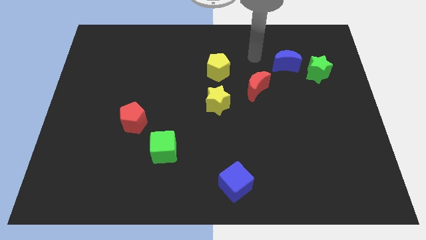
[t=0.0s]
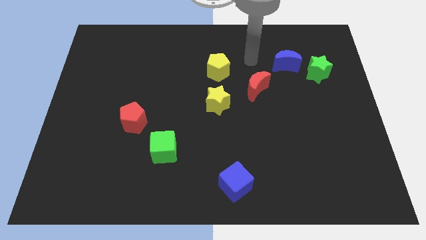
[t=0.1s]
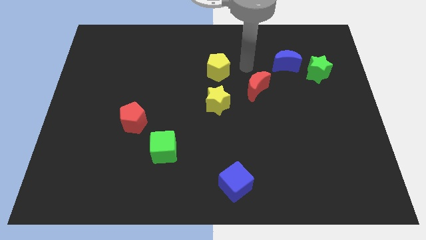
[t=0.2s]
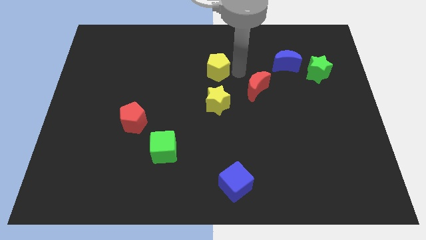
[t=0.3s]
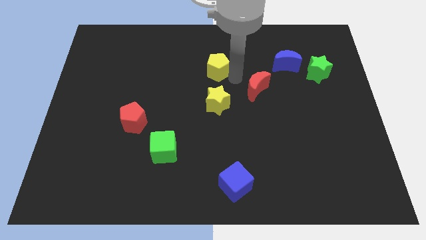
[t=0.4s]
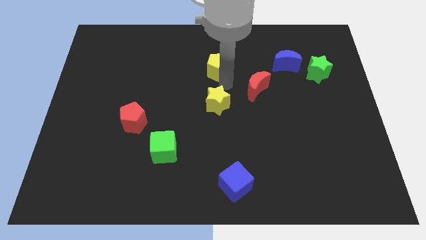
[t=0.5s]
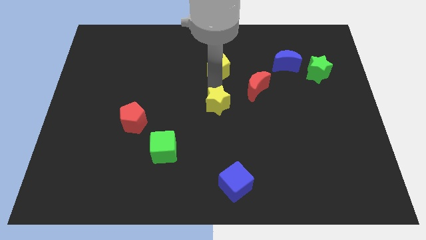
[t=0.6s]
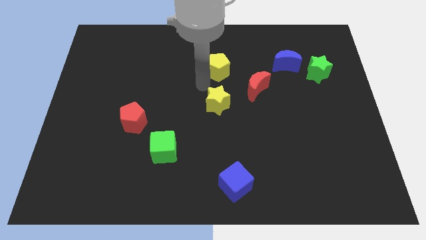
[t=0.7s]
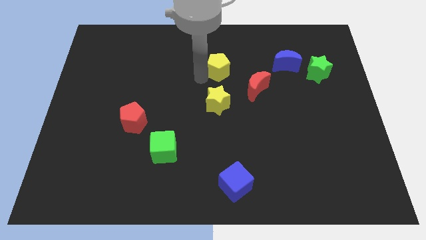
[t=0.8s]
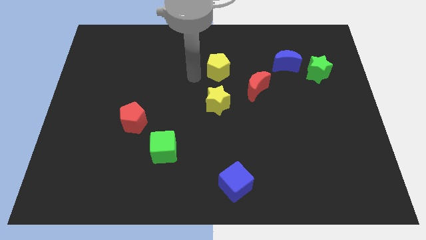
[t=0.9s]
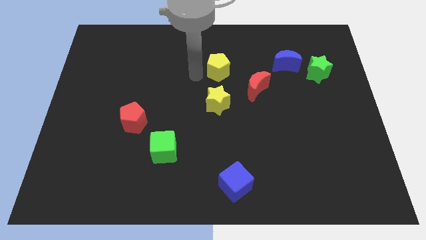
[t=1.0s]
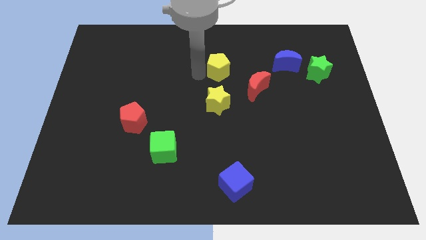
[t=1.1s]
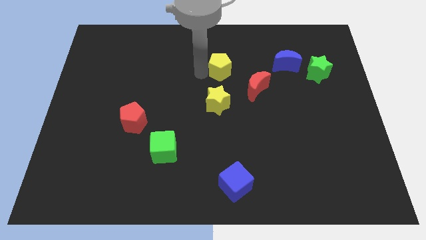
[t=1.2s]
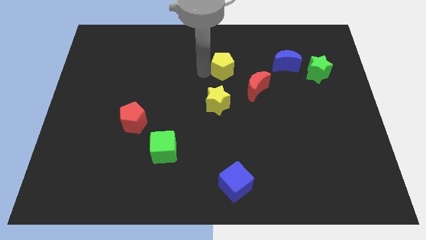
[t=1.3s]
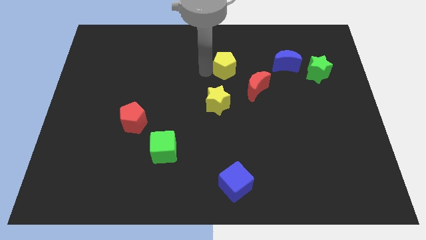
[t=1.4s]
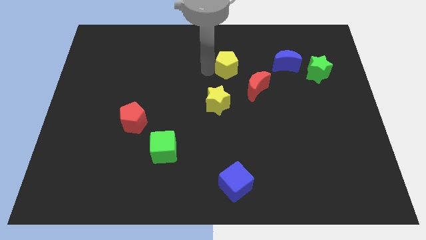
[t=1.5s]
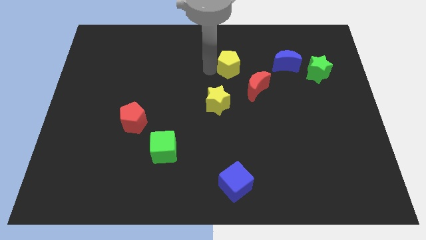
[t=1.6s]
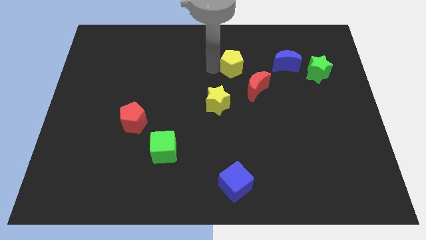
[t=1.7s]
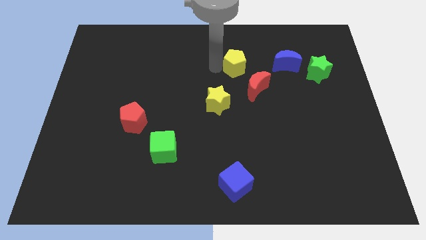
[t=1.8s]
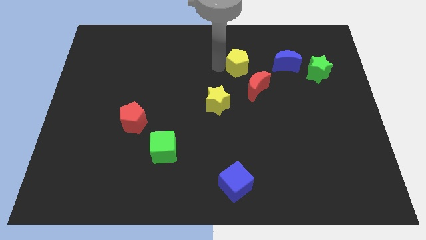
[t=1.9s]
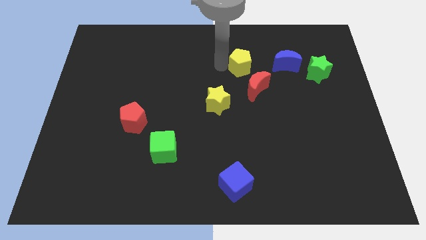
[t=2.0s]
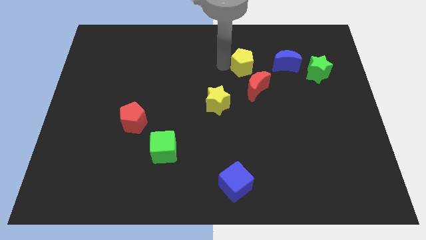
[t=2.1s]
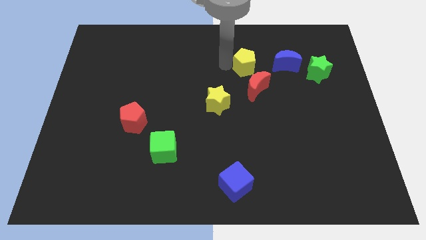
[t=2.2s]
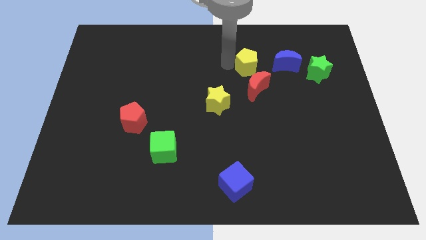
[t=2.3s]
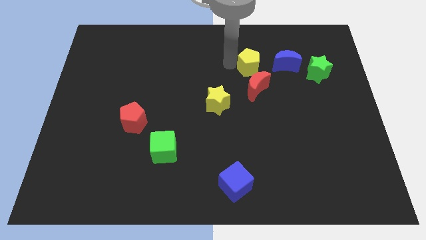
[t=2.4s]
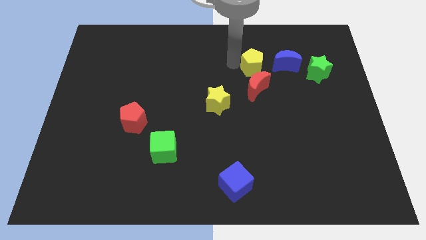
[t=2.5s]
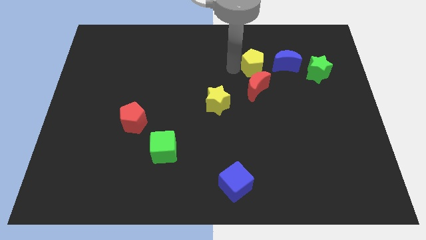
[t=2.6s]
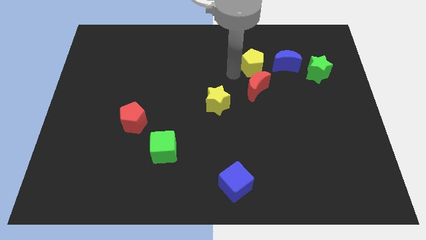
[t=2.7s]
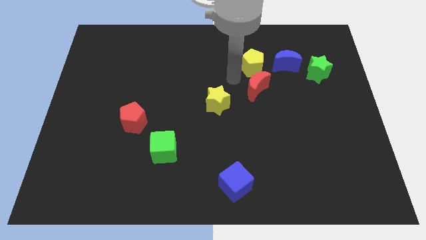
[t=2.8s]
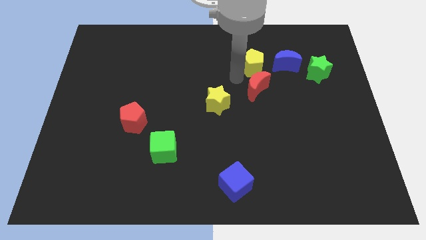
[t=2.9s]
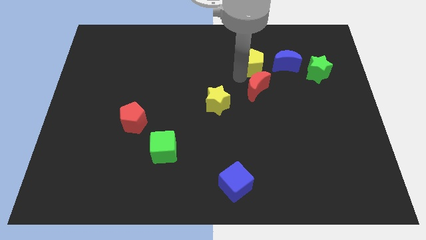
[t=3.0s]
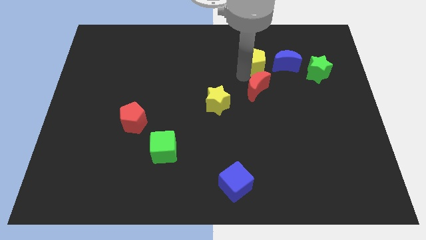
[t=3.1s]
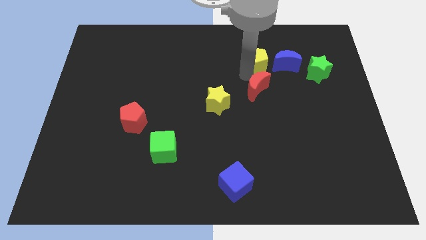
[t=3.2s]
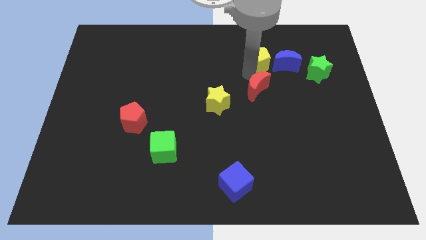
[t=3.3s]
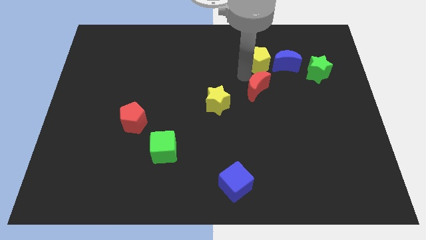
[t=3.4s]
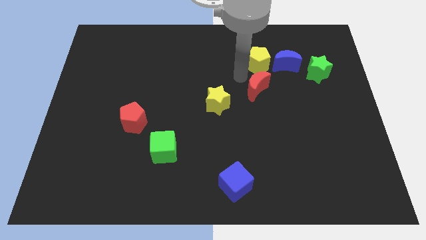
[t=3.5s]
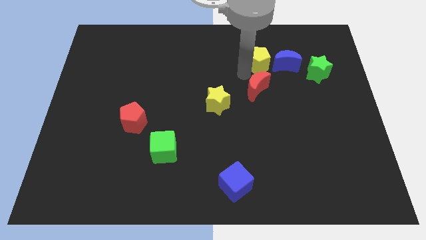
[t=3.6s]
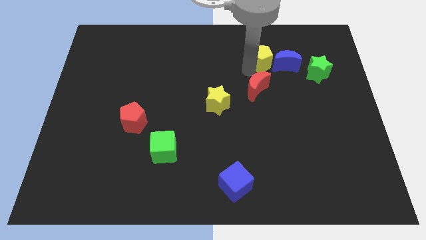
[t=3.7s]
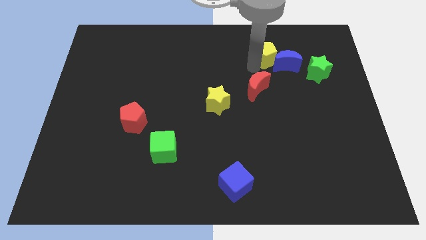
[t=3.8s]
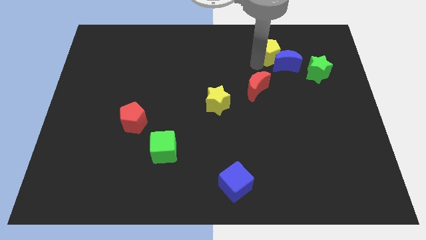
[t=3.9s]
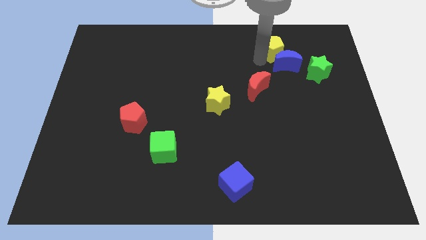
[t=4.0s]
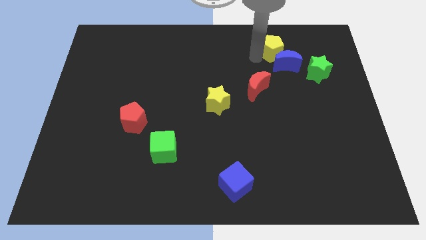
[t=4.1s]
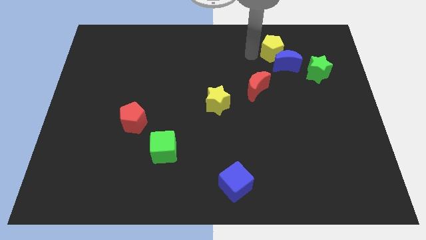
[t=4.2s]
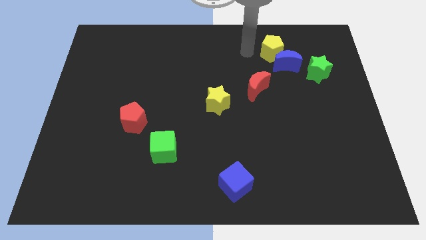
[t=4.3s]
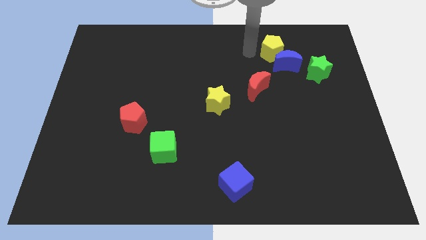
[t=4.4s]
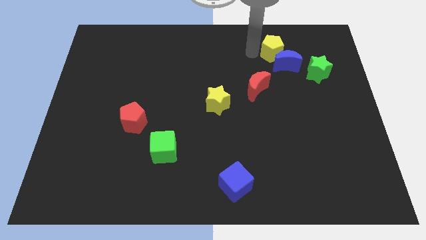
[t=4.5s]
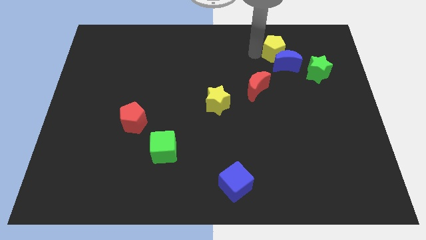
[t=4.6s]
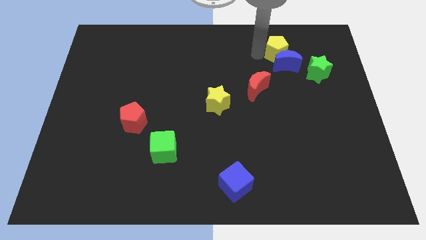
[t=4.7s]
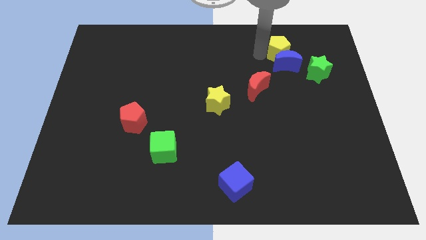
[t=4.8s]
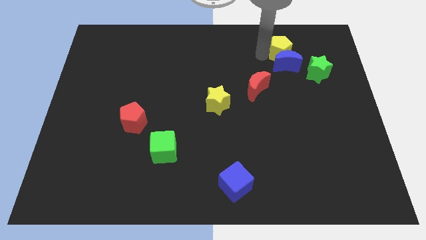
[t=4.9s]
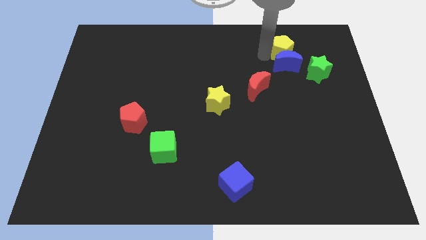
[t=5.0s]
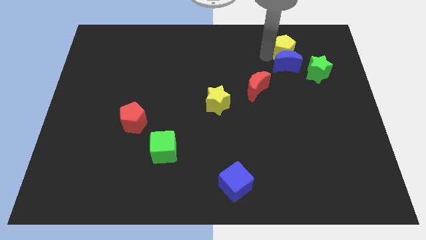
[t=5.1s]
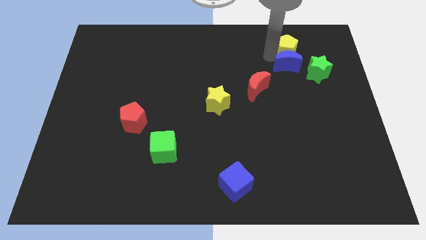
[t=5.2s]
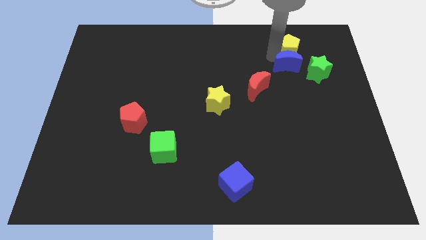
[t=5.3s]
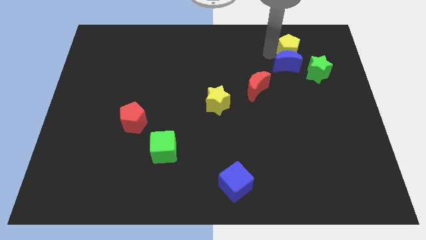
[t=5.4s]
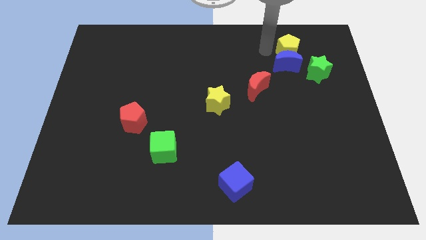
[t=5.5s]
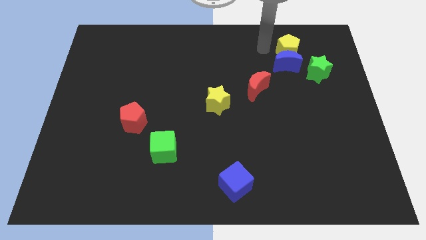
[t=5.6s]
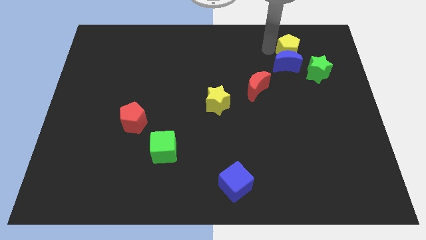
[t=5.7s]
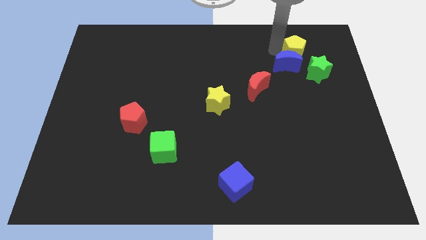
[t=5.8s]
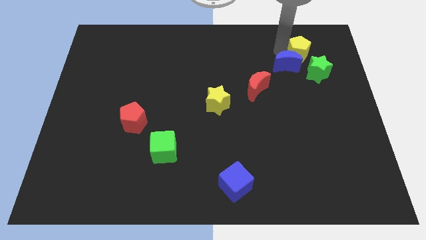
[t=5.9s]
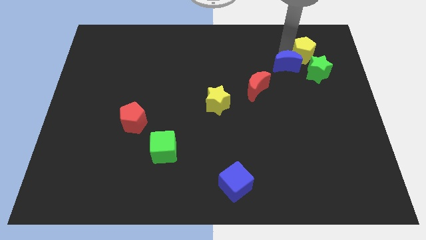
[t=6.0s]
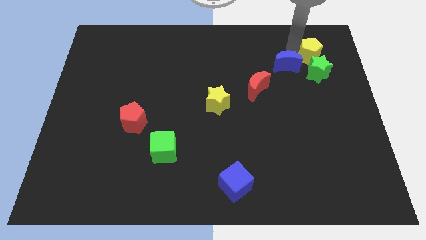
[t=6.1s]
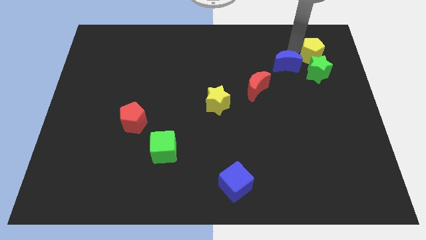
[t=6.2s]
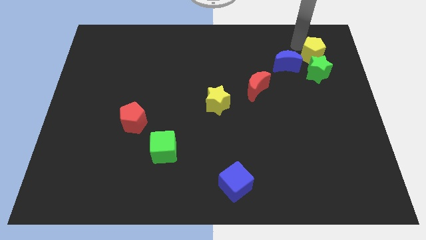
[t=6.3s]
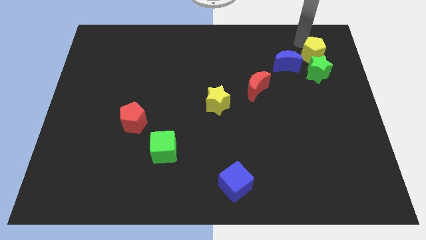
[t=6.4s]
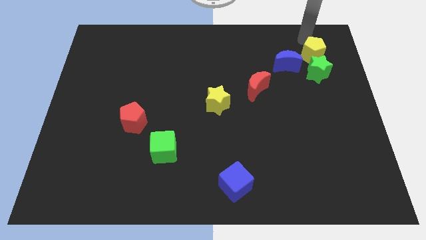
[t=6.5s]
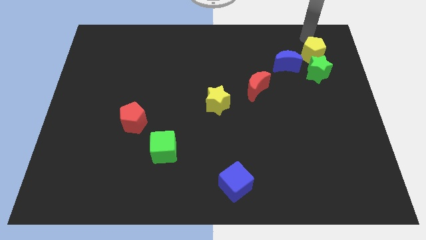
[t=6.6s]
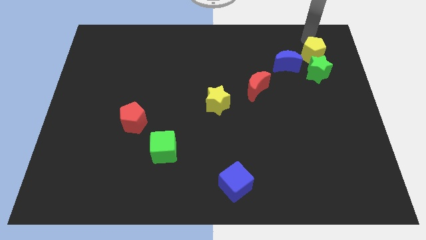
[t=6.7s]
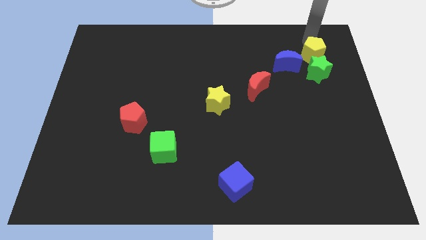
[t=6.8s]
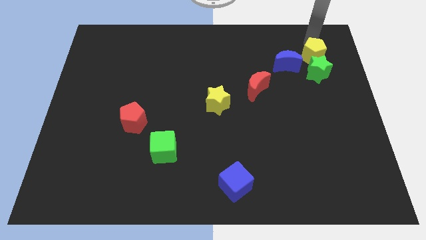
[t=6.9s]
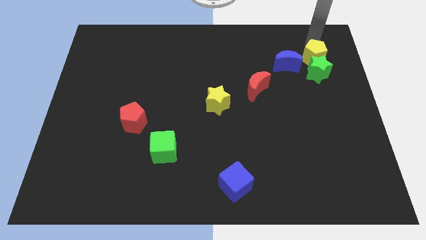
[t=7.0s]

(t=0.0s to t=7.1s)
move the yellow pentagon close to the green star

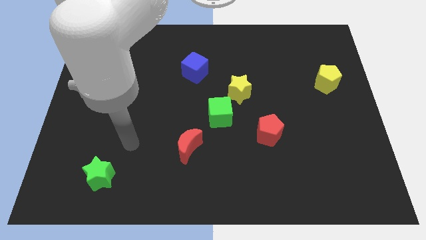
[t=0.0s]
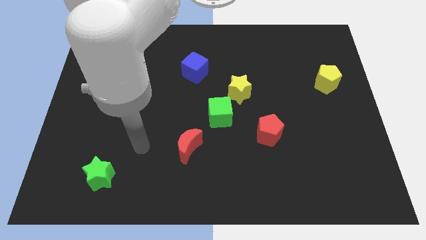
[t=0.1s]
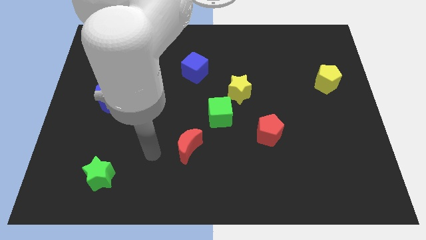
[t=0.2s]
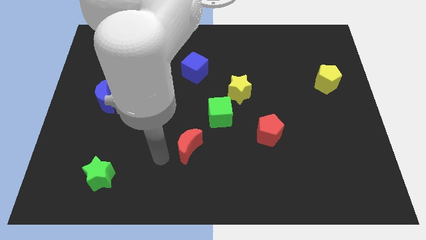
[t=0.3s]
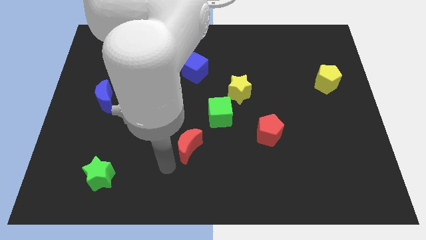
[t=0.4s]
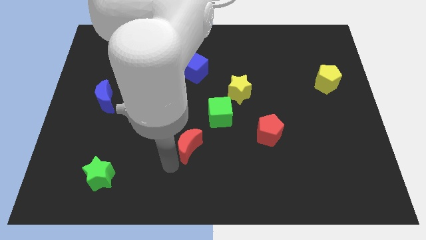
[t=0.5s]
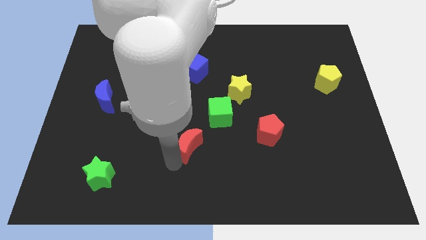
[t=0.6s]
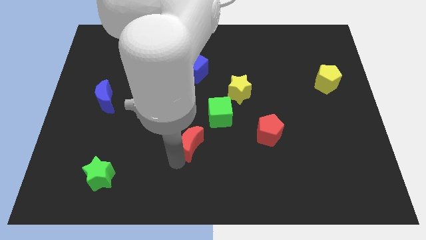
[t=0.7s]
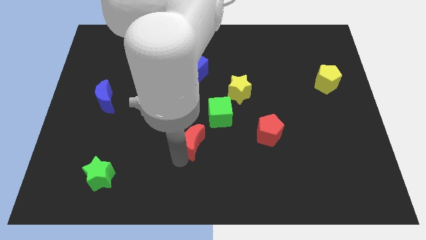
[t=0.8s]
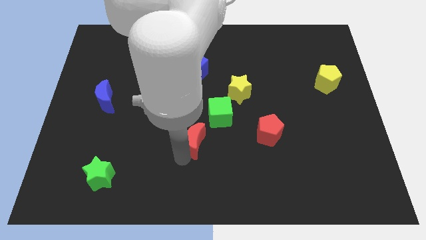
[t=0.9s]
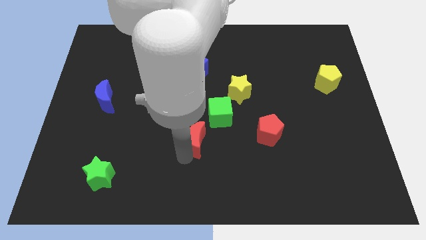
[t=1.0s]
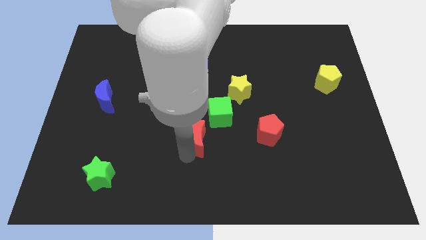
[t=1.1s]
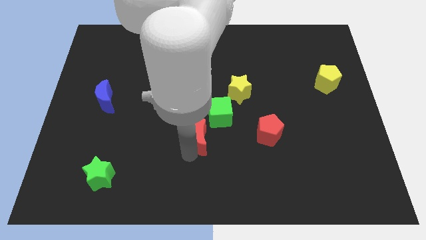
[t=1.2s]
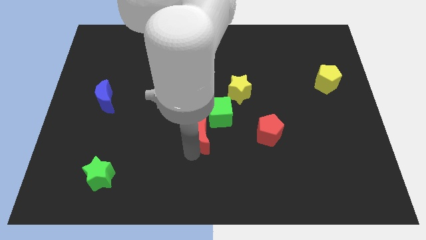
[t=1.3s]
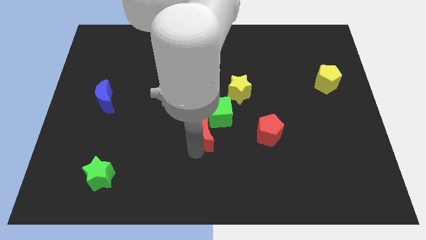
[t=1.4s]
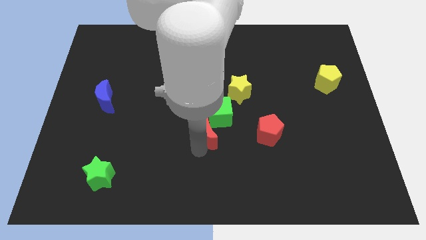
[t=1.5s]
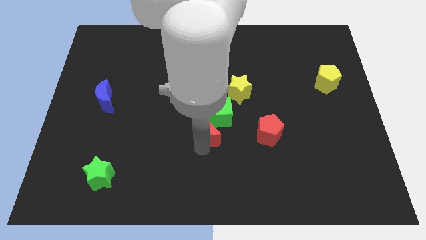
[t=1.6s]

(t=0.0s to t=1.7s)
put the red moon to the green cube
